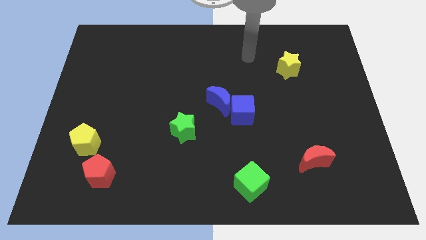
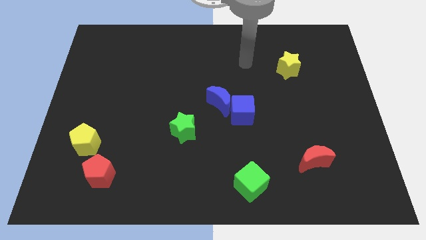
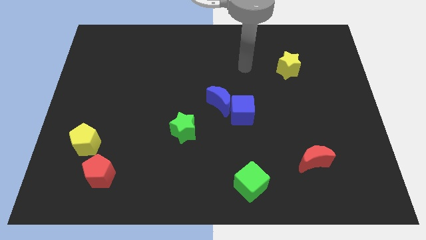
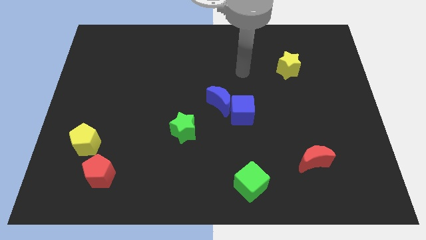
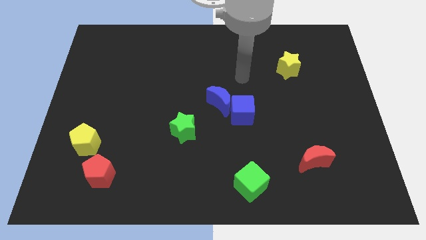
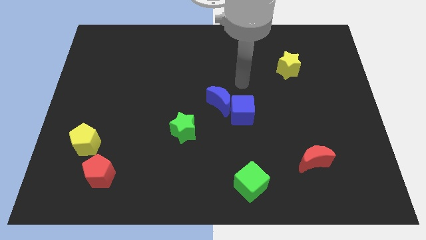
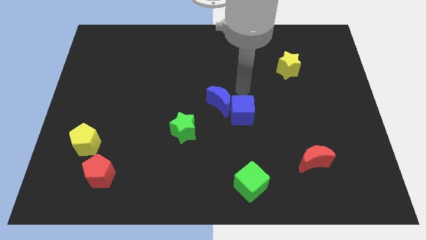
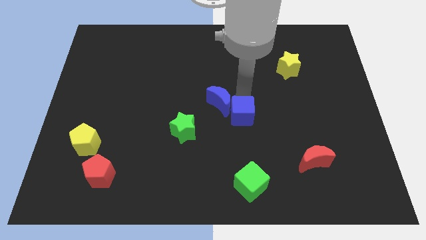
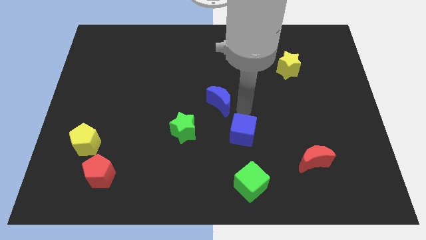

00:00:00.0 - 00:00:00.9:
separate the blue moon from the blue cube

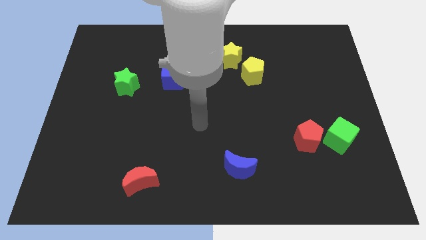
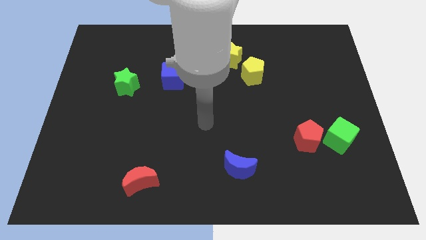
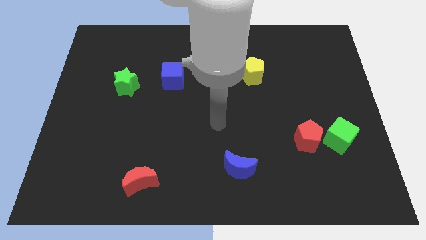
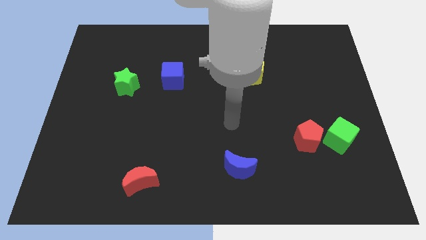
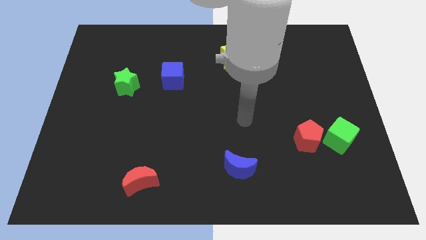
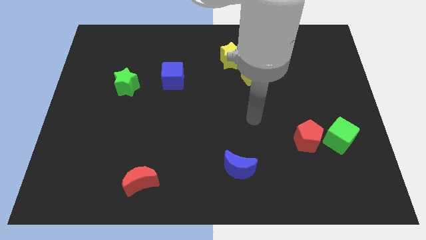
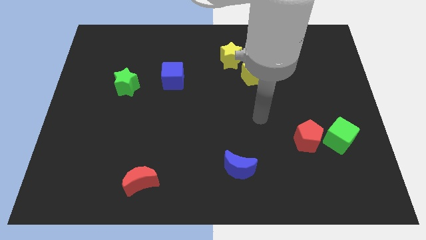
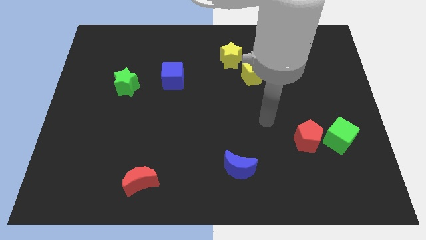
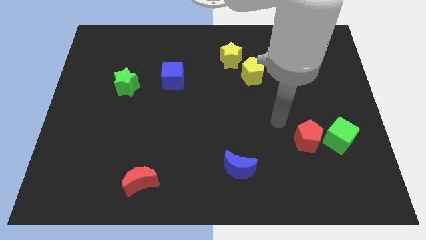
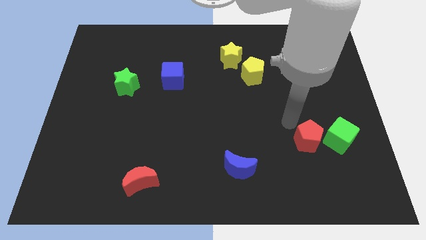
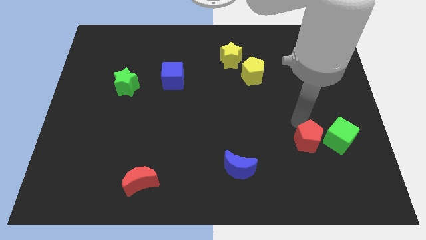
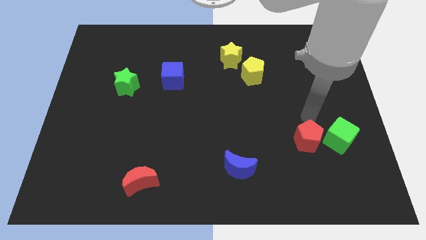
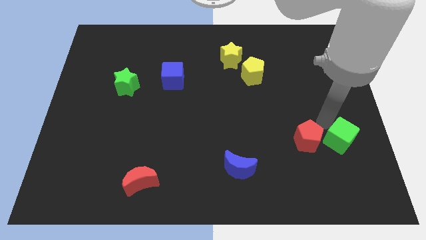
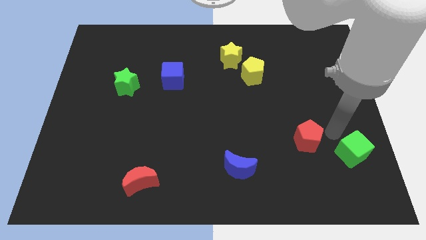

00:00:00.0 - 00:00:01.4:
separate the red pentagon from the green cube

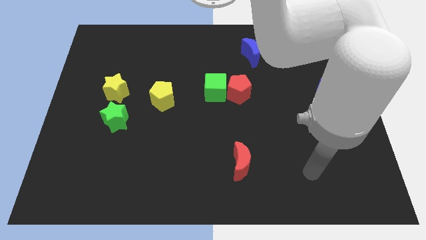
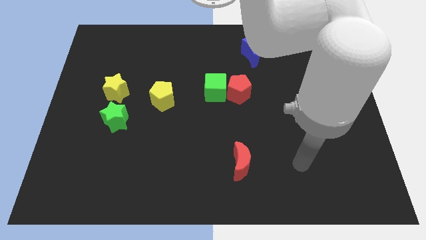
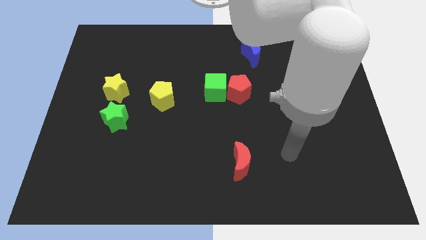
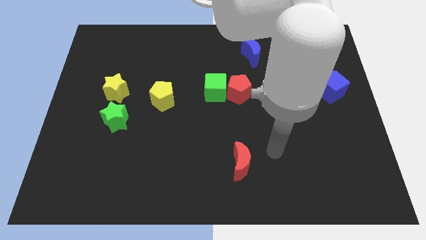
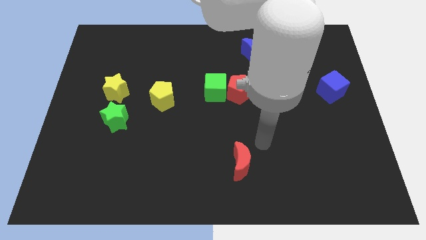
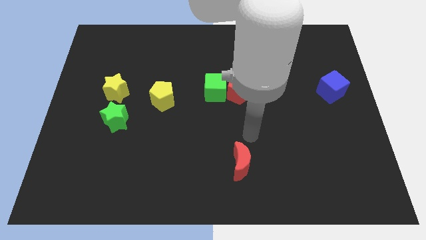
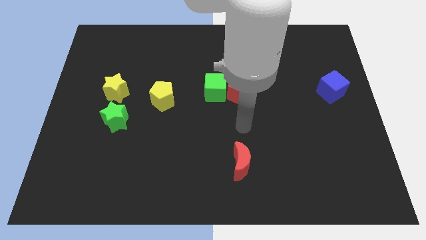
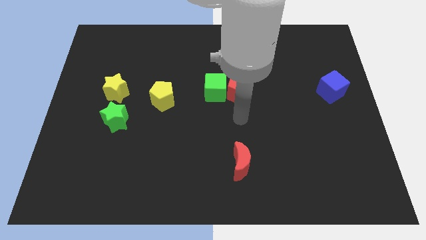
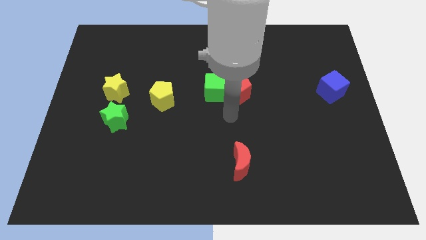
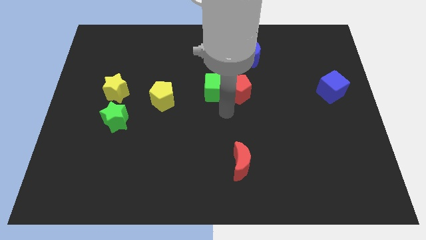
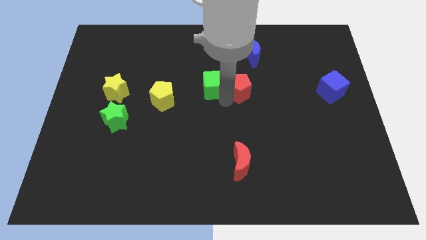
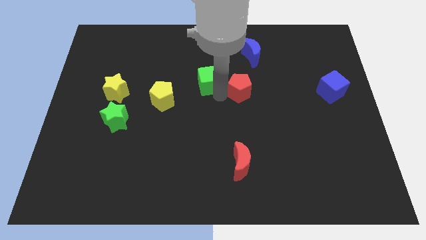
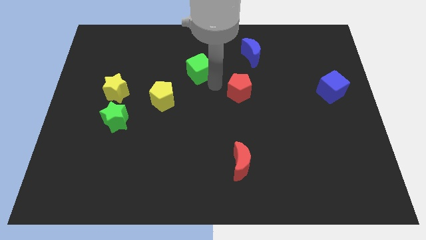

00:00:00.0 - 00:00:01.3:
move the red pentagon away from the green cube

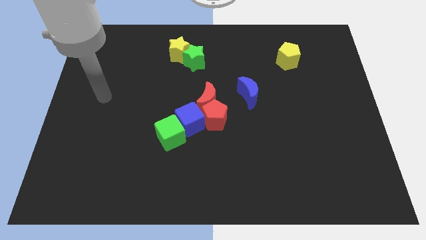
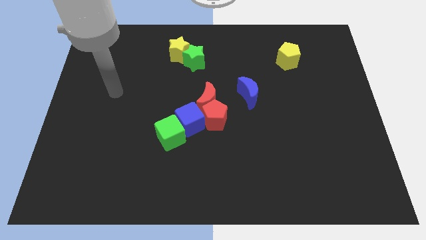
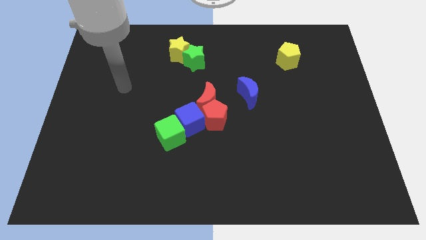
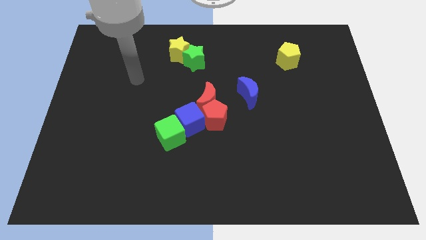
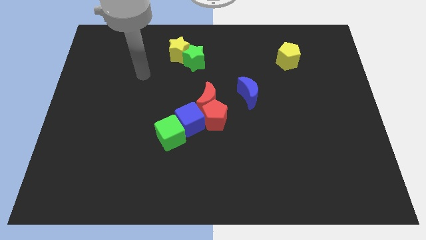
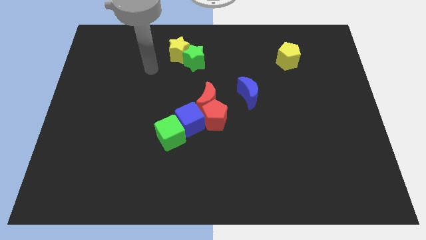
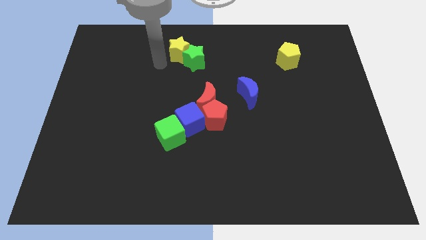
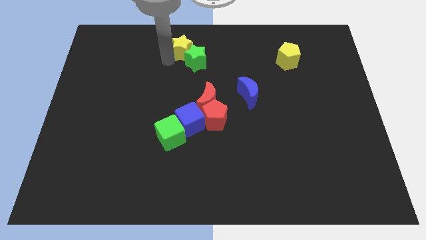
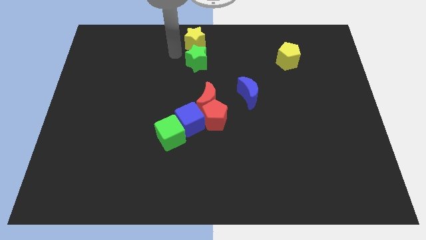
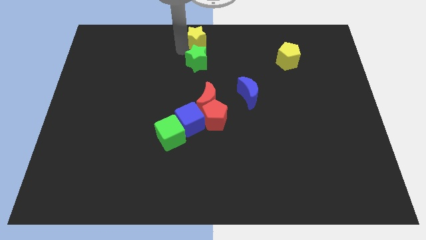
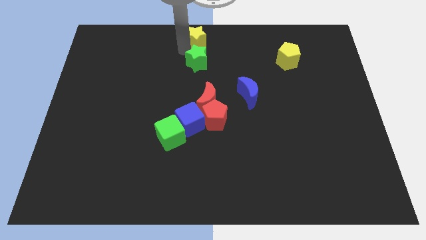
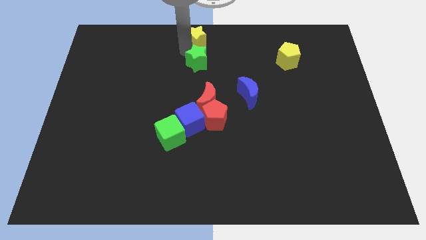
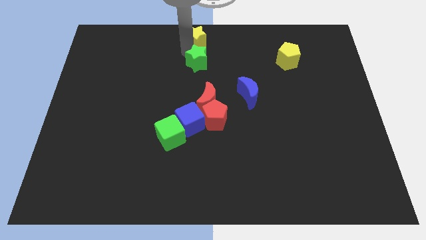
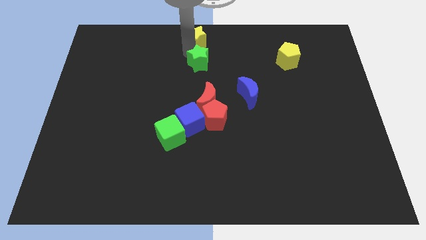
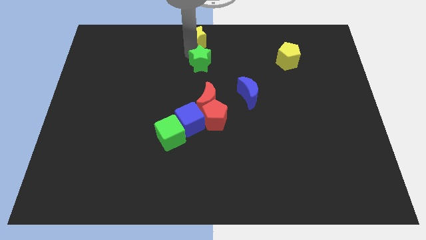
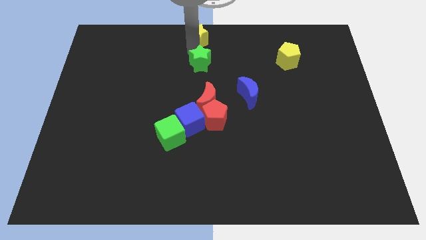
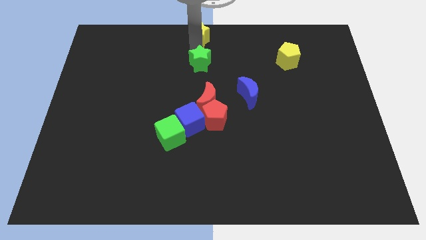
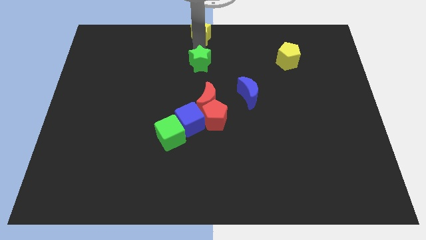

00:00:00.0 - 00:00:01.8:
move the green star away from the yellow star

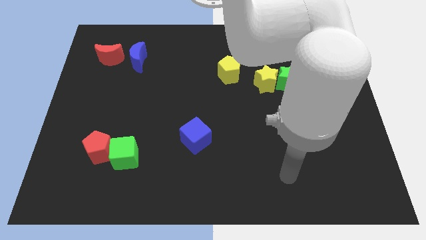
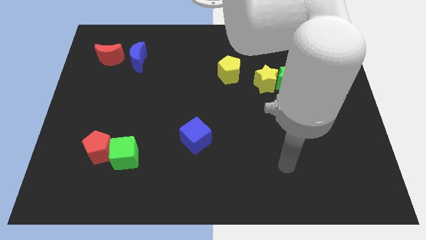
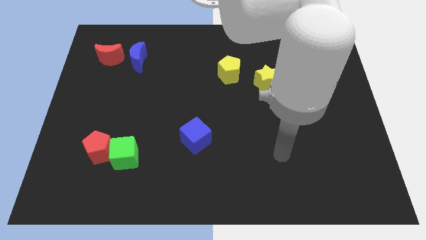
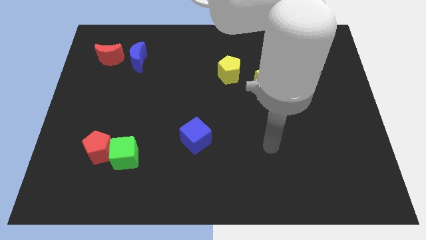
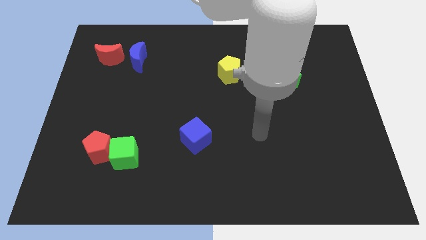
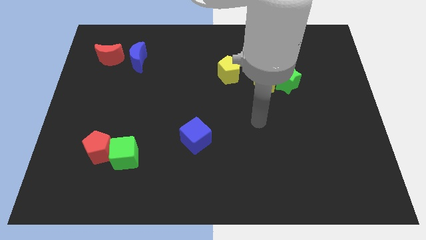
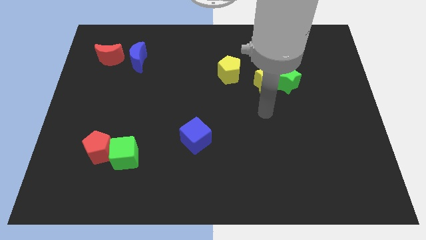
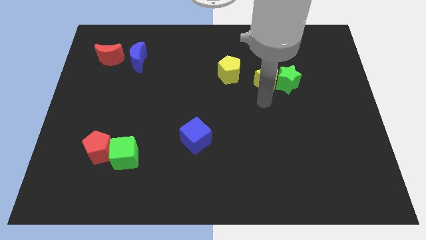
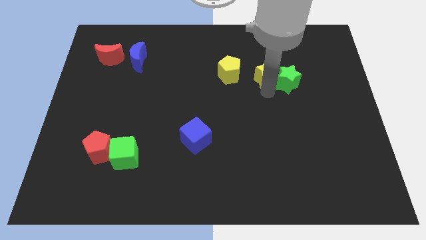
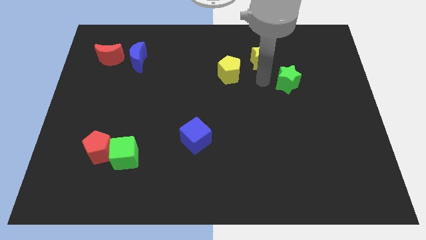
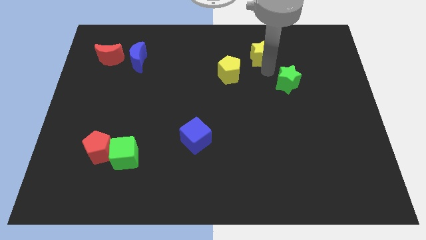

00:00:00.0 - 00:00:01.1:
separate the green star from the yellow star

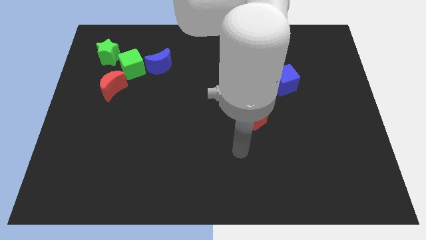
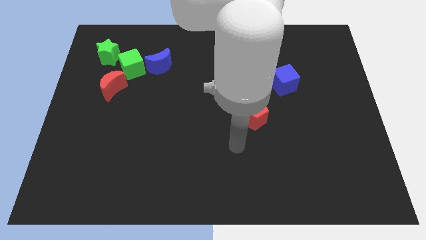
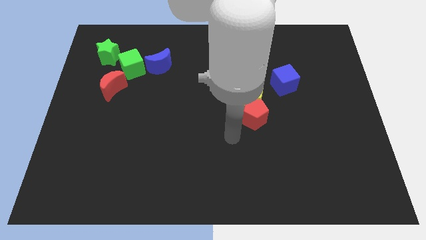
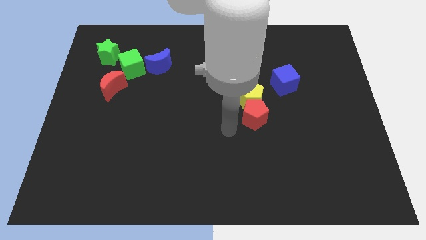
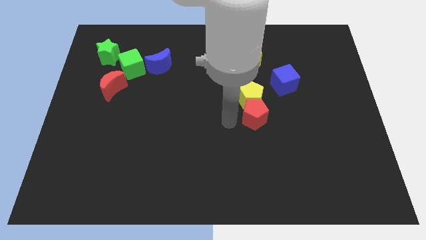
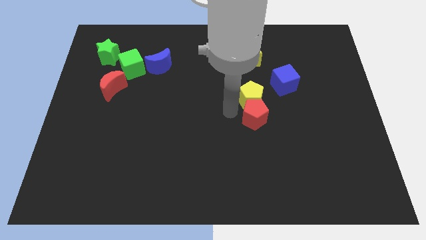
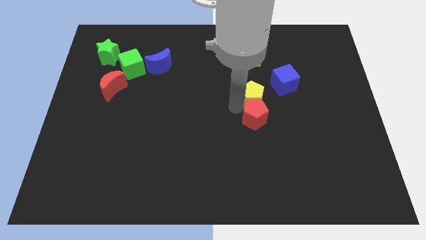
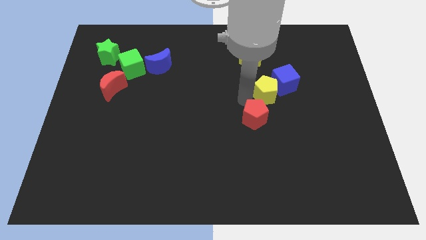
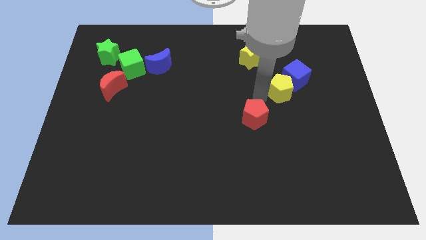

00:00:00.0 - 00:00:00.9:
pull the red pentagon apart from the yellow pentagon

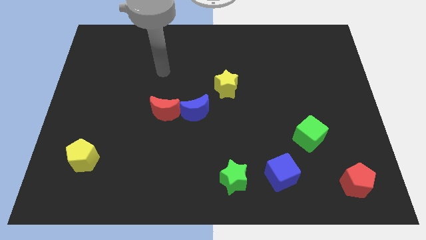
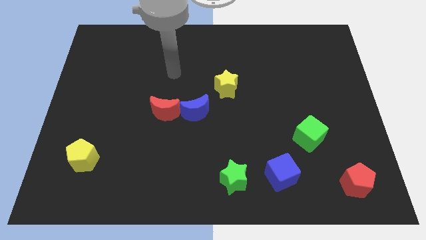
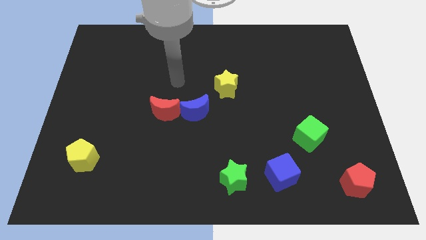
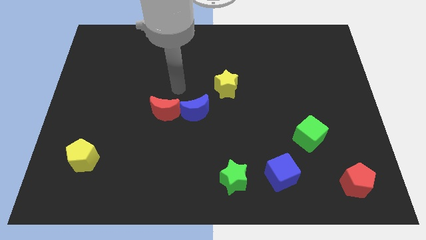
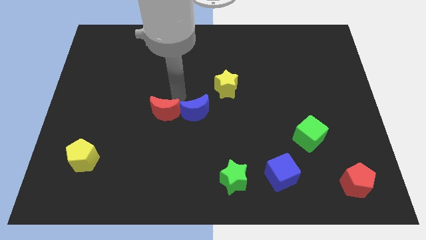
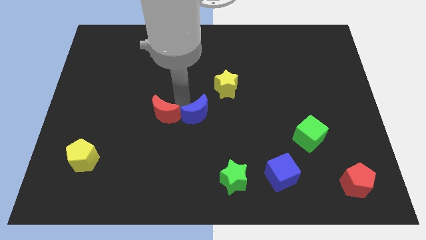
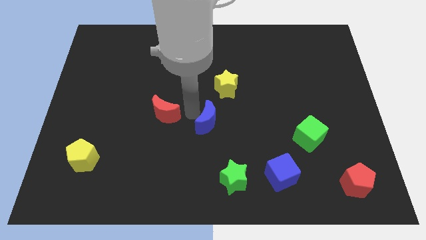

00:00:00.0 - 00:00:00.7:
separate the red moon from the blue moon

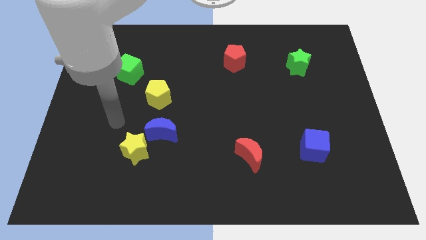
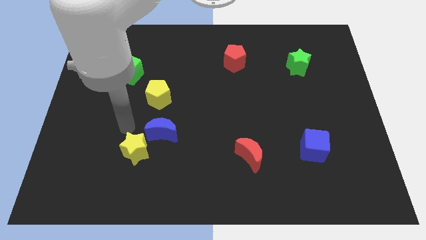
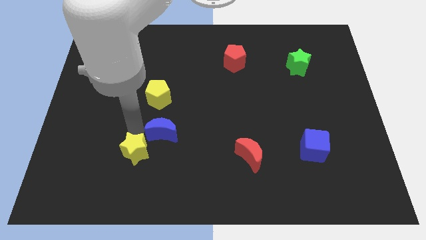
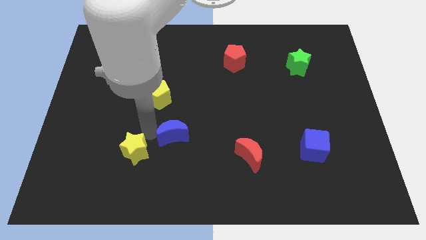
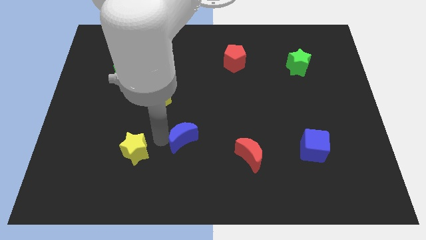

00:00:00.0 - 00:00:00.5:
move the yellow star away from the blue moon

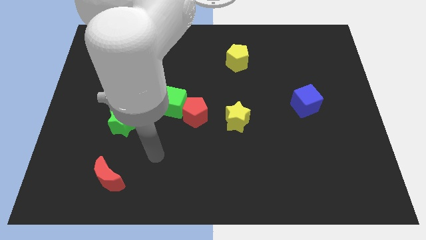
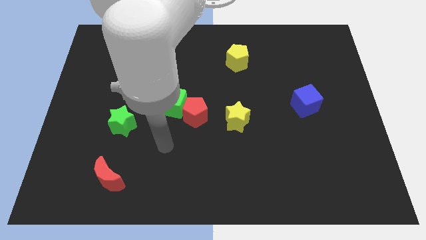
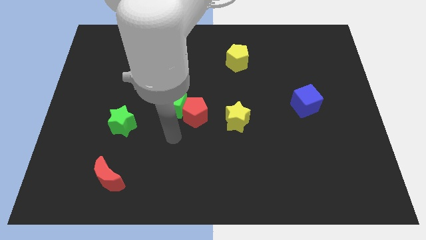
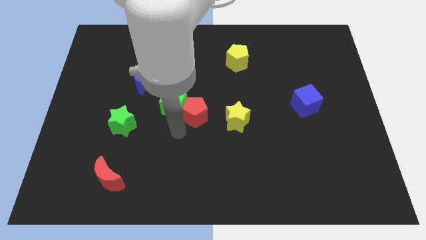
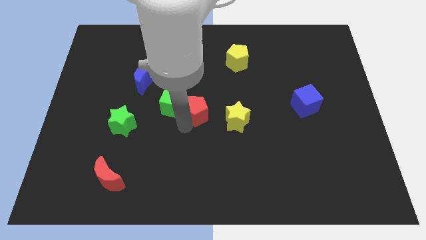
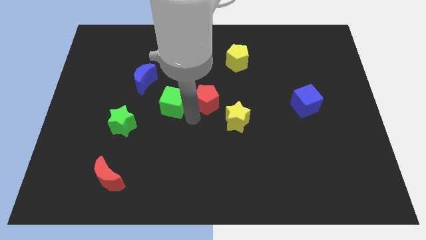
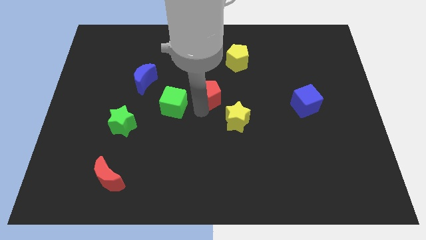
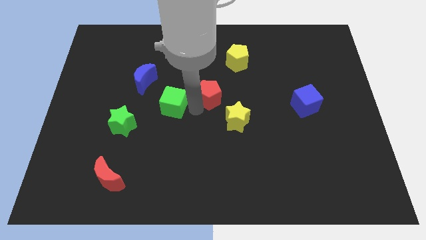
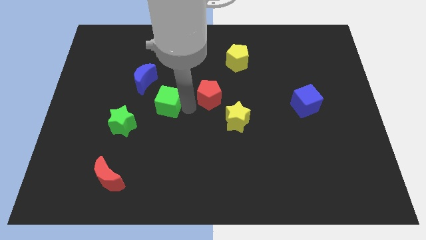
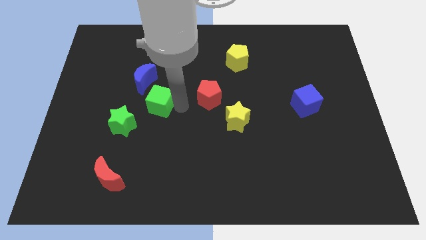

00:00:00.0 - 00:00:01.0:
pull the green cube apart from the red pentagon
